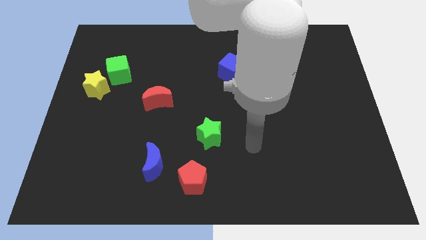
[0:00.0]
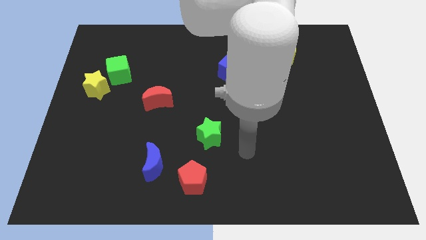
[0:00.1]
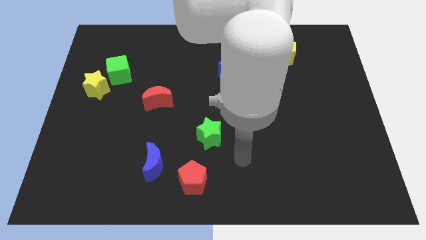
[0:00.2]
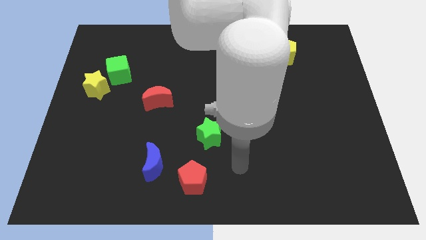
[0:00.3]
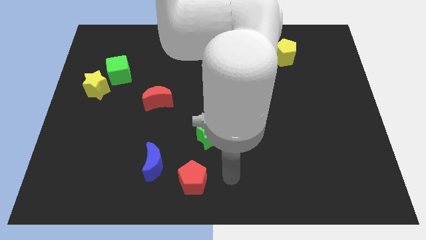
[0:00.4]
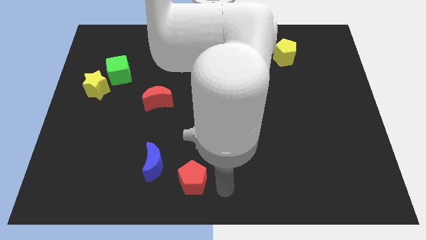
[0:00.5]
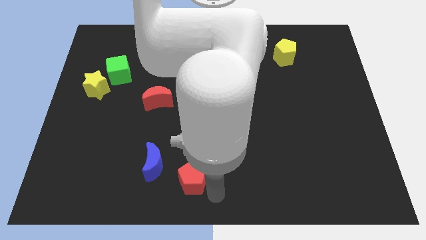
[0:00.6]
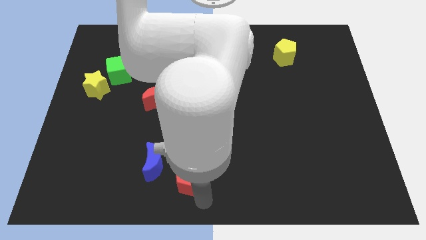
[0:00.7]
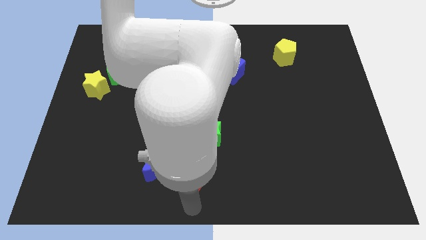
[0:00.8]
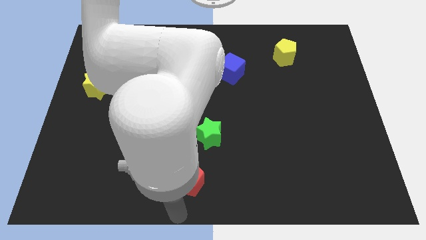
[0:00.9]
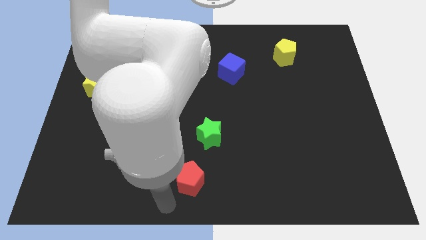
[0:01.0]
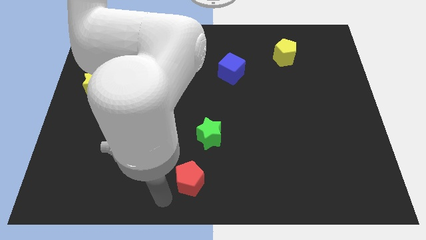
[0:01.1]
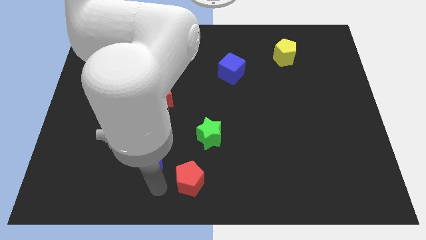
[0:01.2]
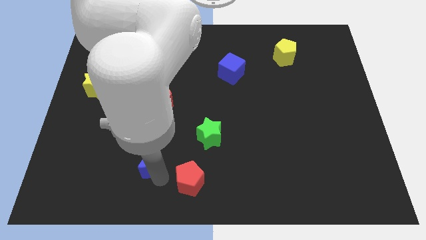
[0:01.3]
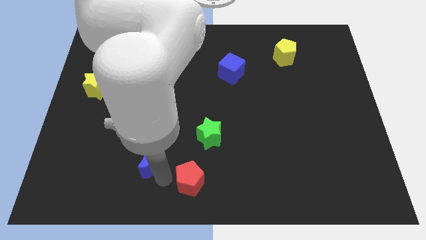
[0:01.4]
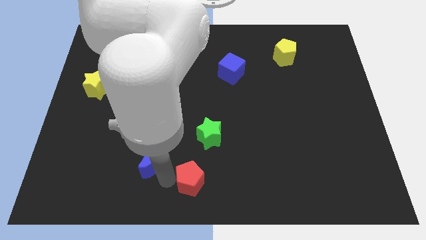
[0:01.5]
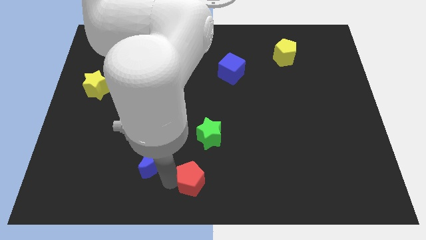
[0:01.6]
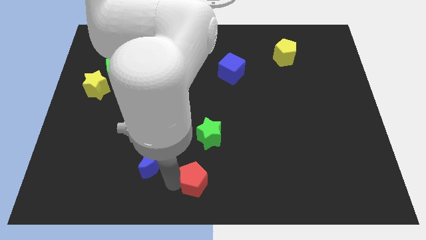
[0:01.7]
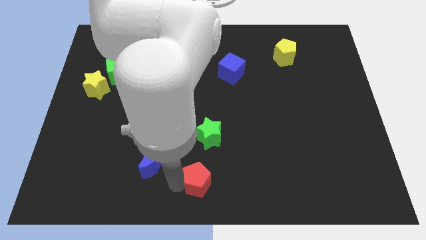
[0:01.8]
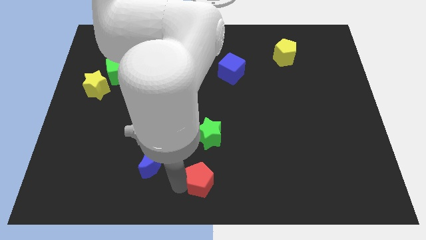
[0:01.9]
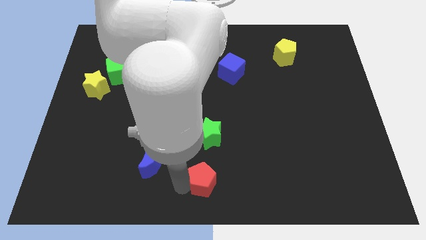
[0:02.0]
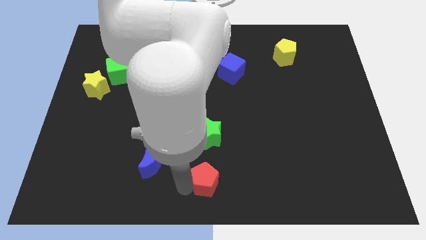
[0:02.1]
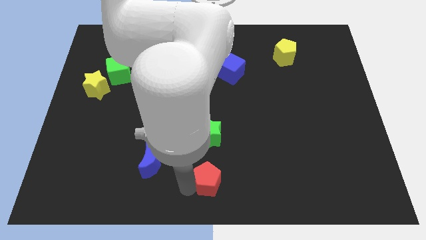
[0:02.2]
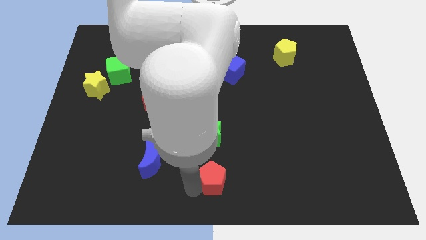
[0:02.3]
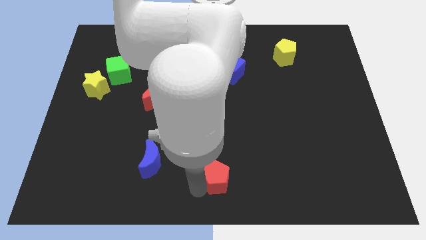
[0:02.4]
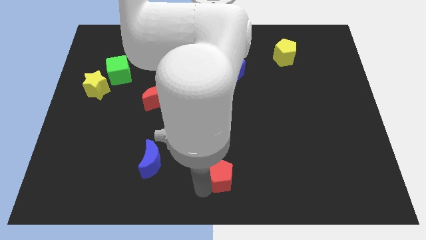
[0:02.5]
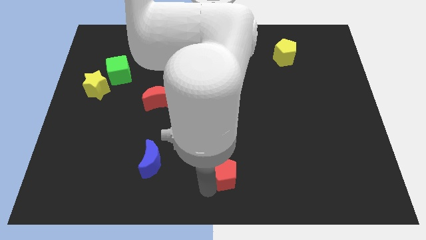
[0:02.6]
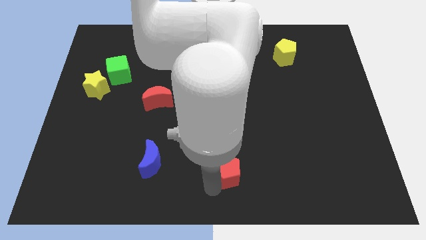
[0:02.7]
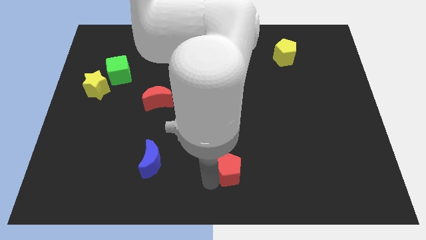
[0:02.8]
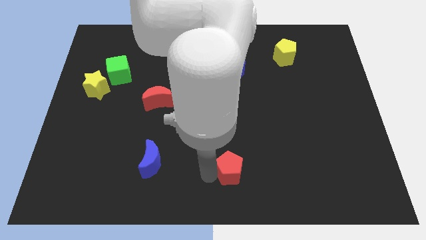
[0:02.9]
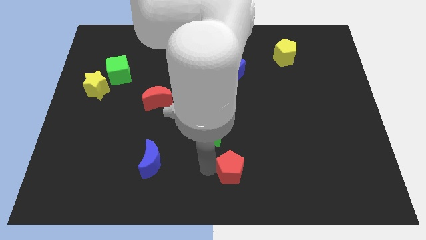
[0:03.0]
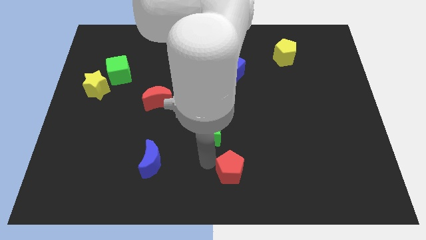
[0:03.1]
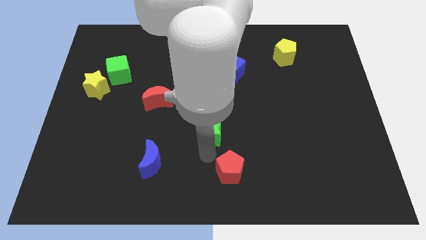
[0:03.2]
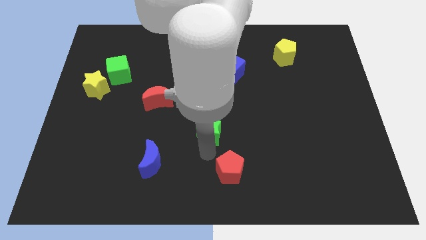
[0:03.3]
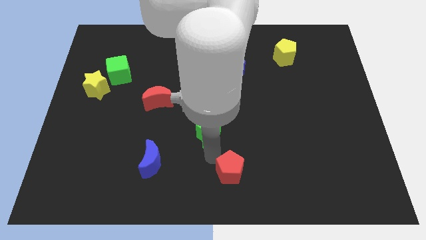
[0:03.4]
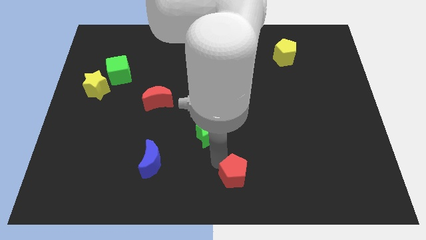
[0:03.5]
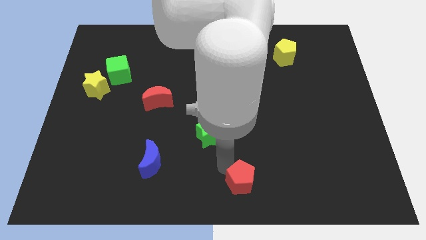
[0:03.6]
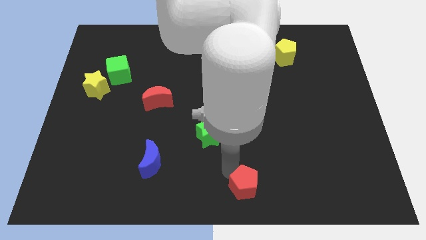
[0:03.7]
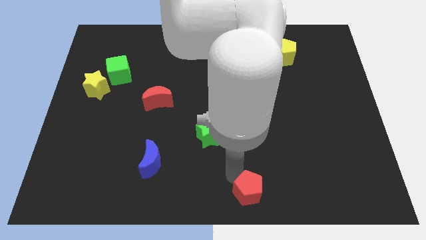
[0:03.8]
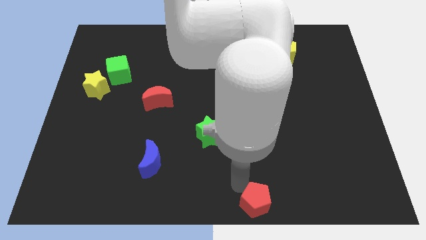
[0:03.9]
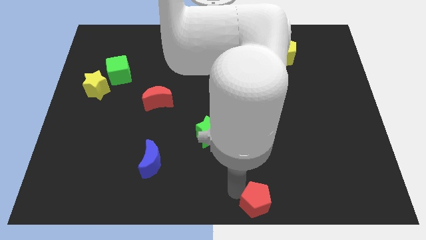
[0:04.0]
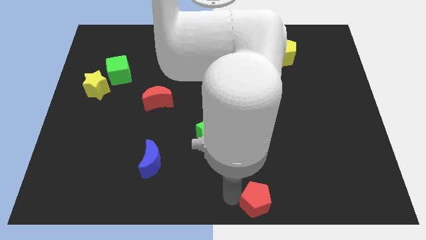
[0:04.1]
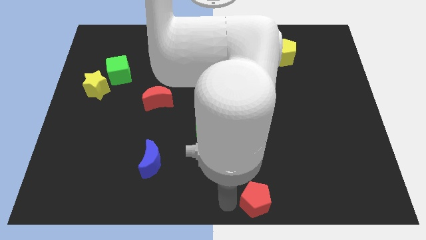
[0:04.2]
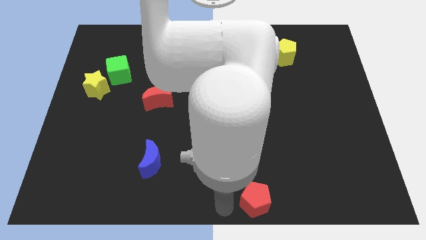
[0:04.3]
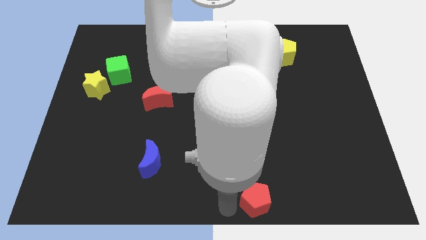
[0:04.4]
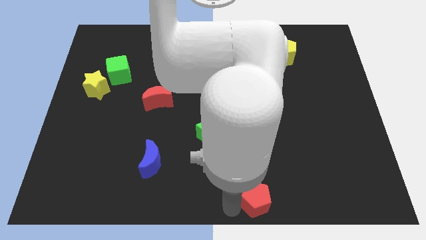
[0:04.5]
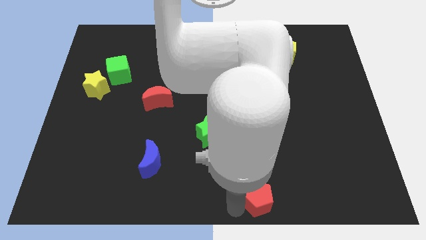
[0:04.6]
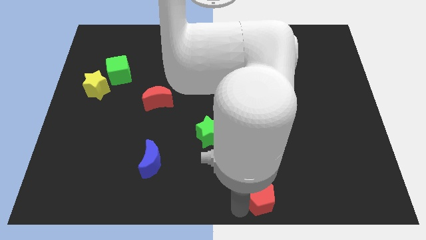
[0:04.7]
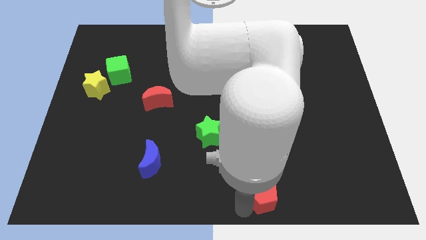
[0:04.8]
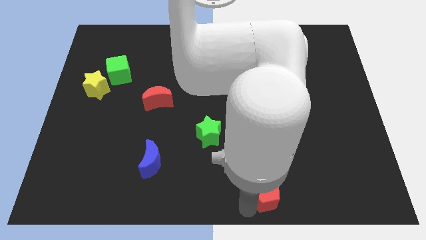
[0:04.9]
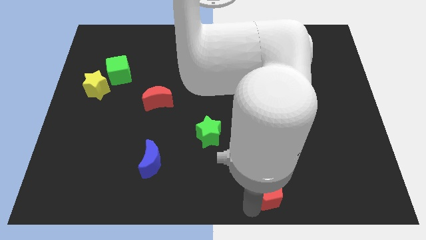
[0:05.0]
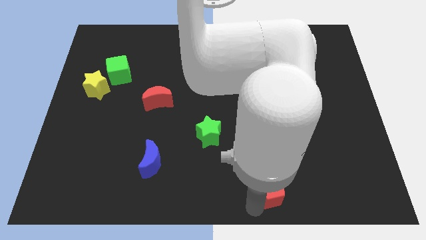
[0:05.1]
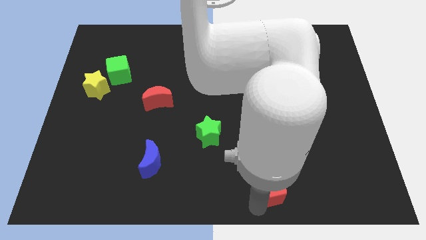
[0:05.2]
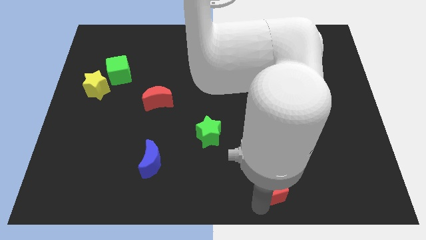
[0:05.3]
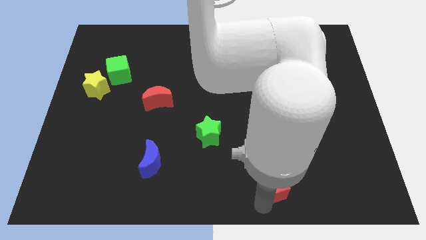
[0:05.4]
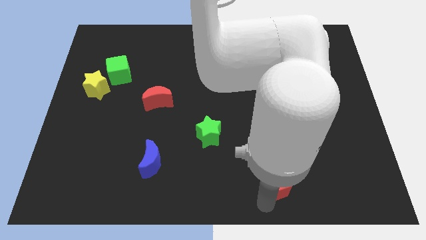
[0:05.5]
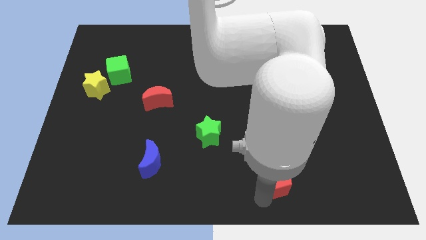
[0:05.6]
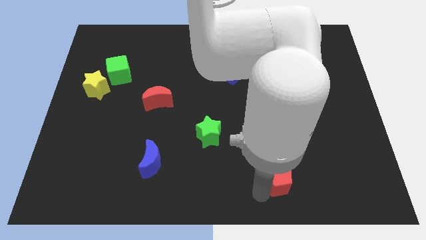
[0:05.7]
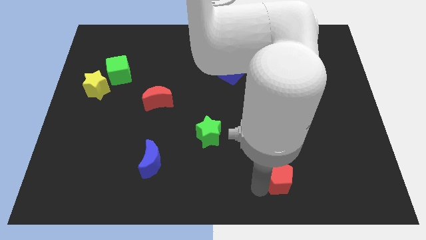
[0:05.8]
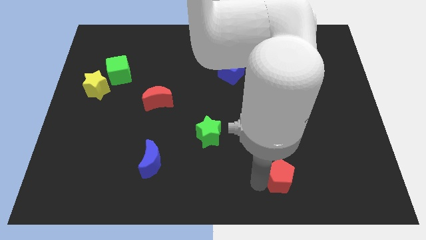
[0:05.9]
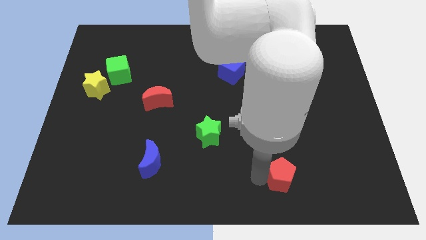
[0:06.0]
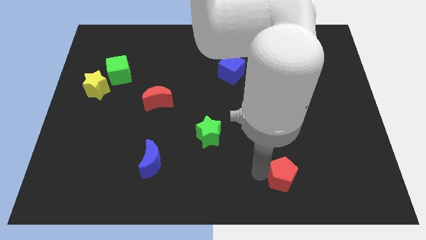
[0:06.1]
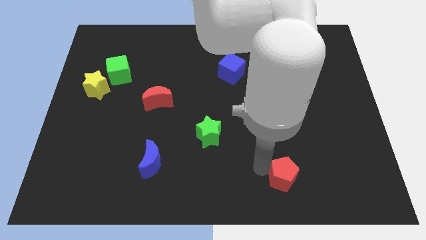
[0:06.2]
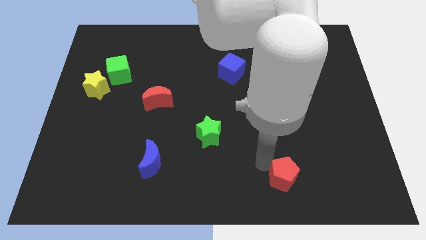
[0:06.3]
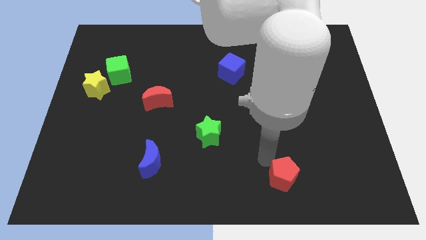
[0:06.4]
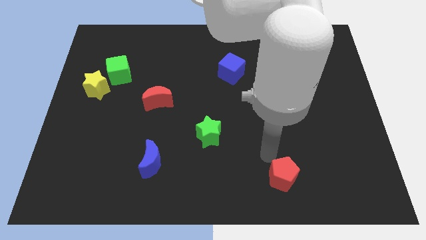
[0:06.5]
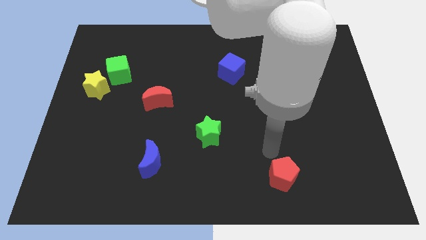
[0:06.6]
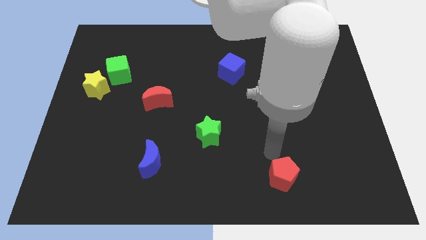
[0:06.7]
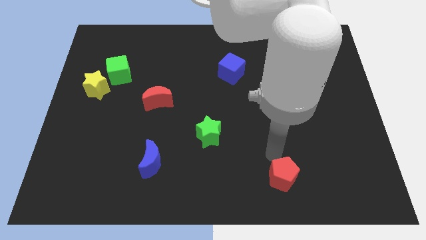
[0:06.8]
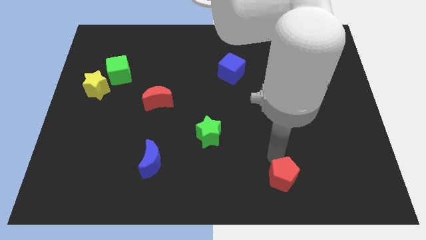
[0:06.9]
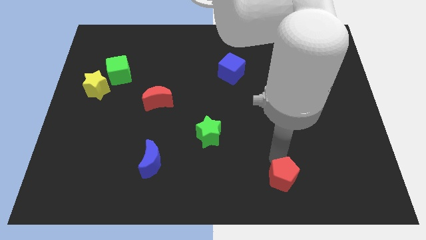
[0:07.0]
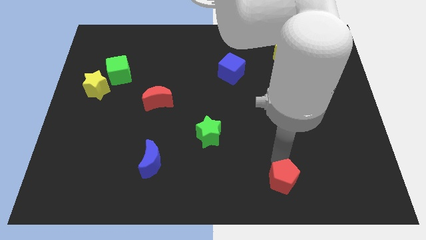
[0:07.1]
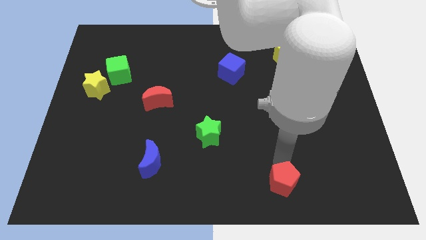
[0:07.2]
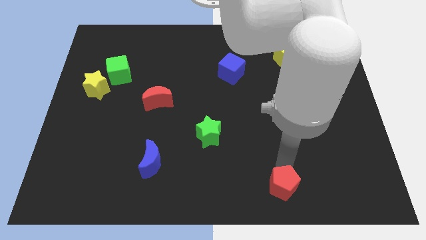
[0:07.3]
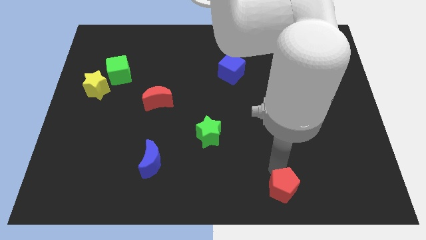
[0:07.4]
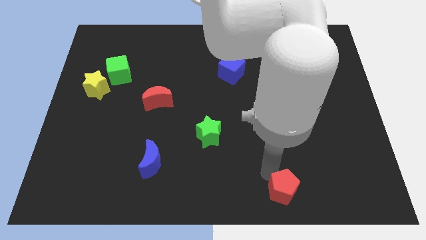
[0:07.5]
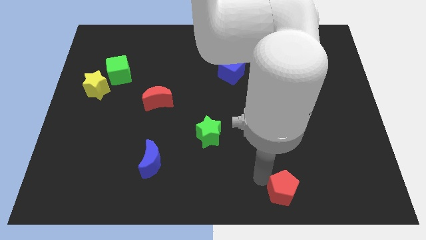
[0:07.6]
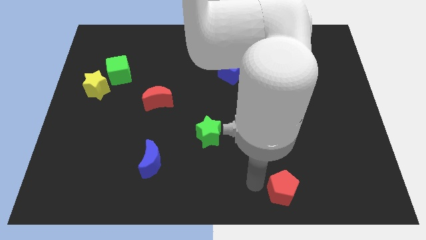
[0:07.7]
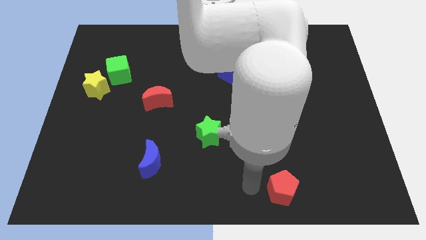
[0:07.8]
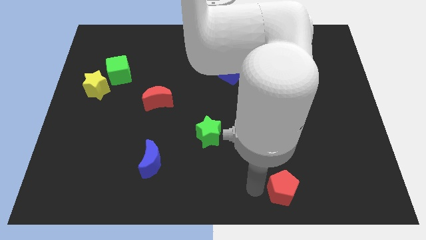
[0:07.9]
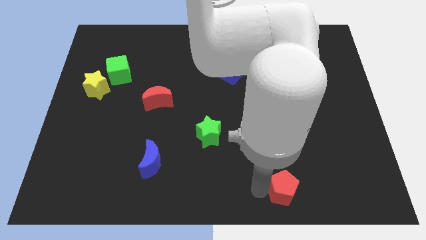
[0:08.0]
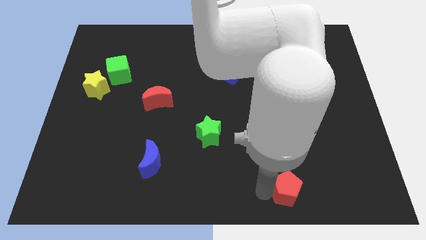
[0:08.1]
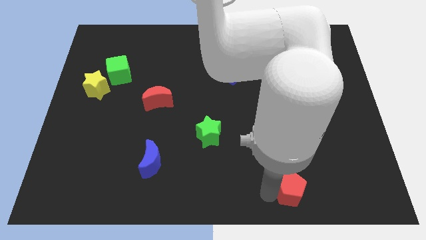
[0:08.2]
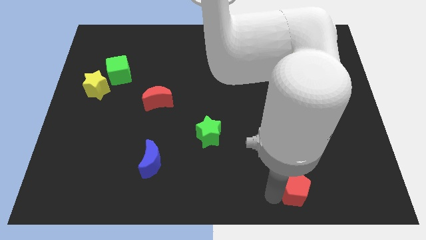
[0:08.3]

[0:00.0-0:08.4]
move the red pentagon to the right
